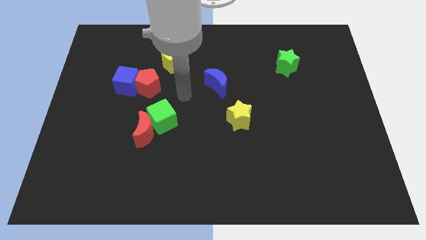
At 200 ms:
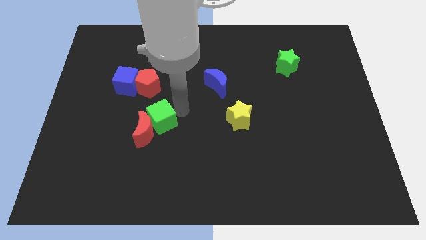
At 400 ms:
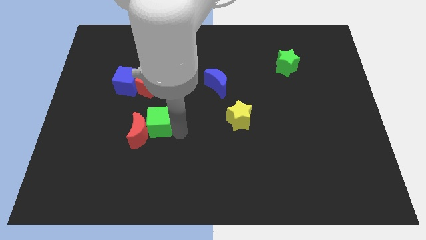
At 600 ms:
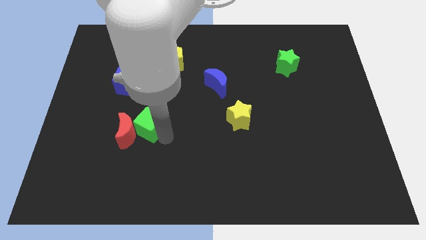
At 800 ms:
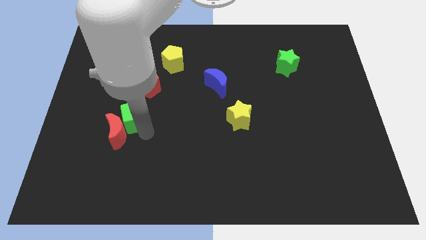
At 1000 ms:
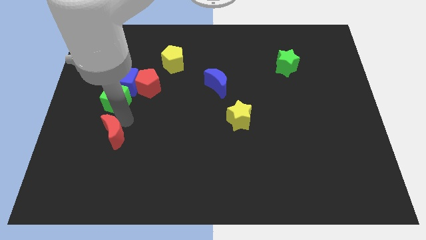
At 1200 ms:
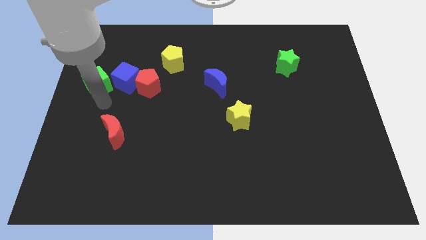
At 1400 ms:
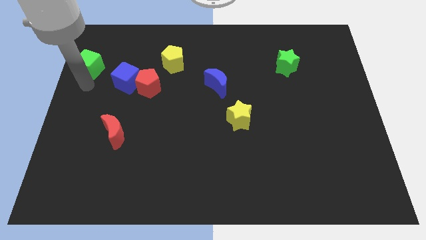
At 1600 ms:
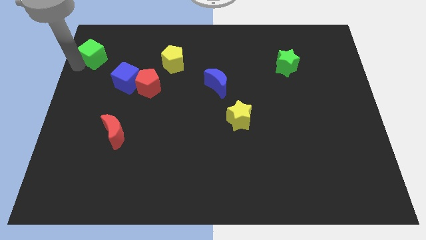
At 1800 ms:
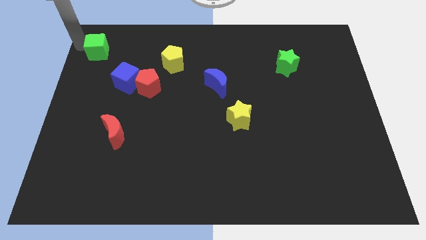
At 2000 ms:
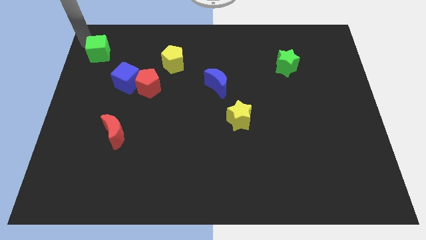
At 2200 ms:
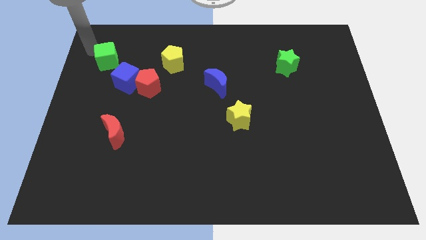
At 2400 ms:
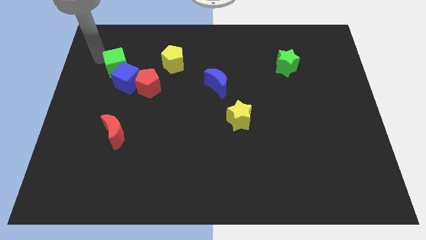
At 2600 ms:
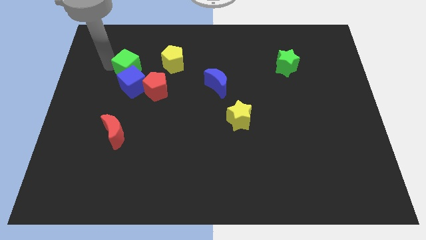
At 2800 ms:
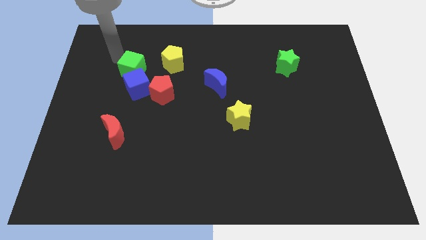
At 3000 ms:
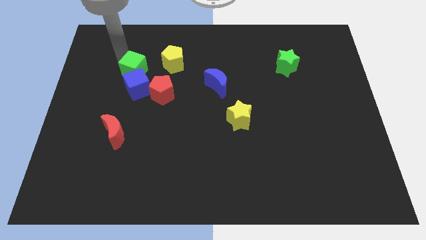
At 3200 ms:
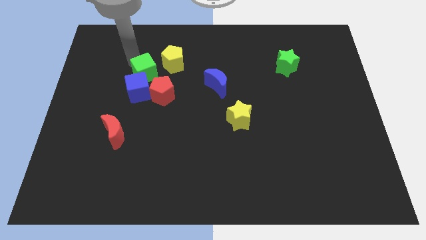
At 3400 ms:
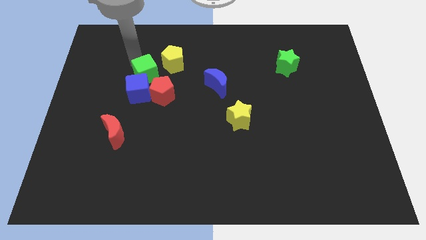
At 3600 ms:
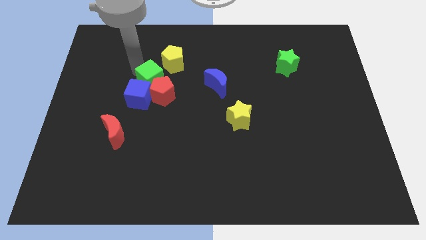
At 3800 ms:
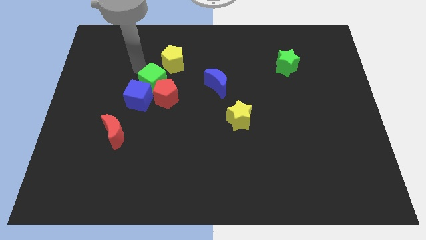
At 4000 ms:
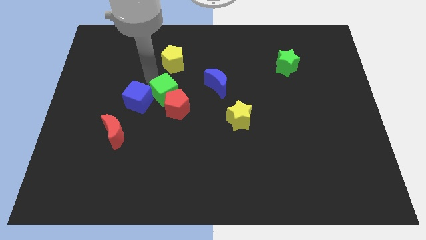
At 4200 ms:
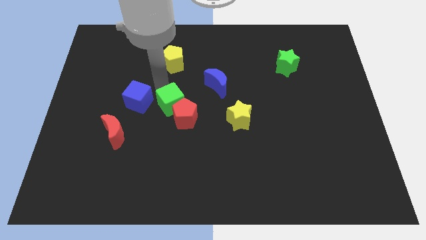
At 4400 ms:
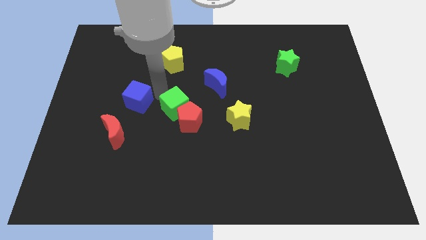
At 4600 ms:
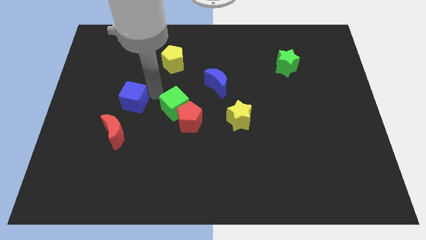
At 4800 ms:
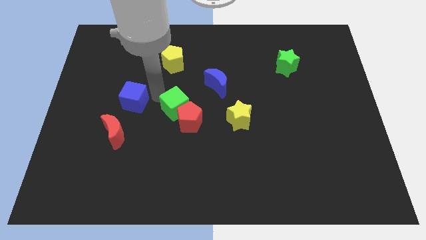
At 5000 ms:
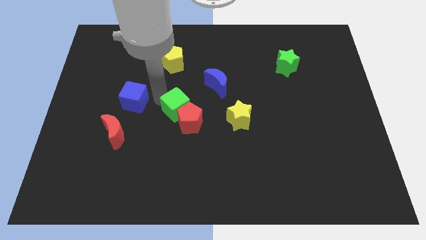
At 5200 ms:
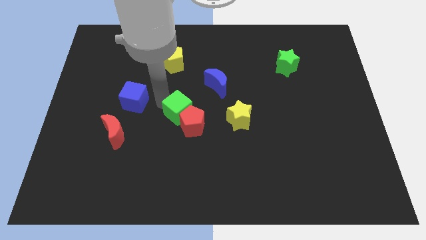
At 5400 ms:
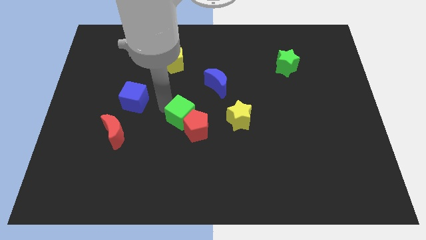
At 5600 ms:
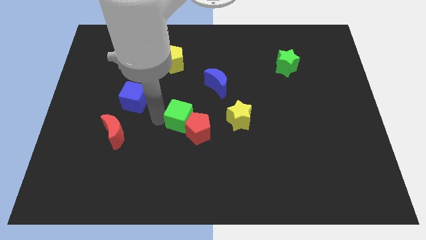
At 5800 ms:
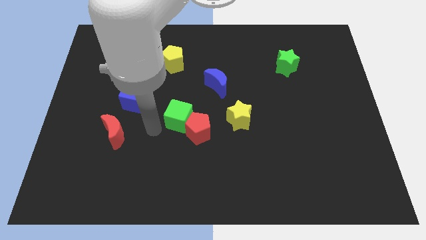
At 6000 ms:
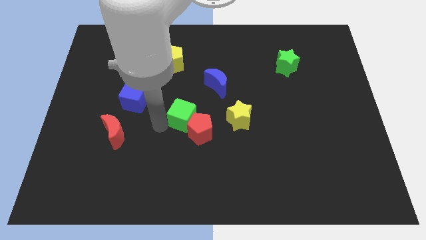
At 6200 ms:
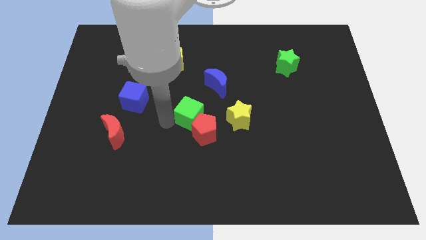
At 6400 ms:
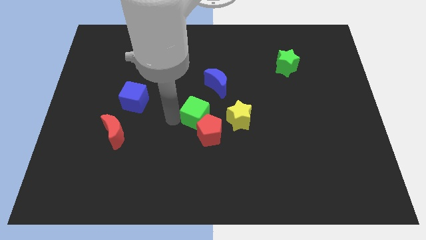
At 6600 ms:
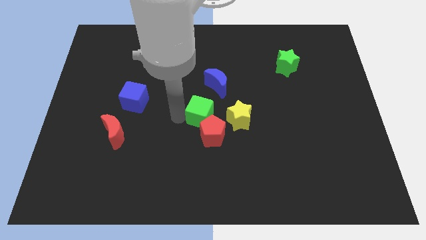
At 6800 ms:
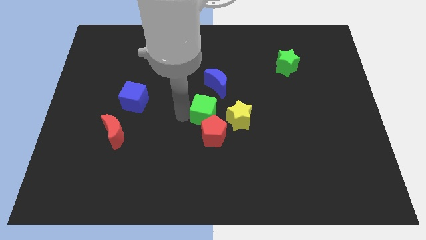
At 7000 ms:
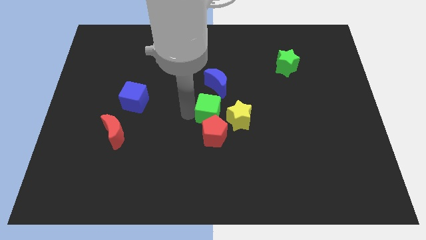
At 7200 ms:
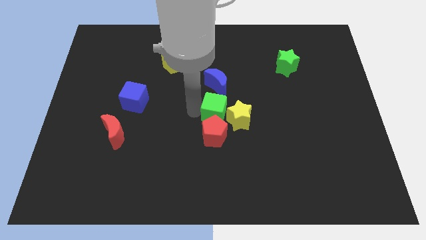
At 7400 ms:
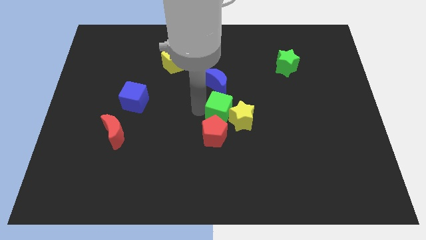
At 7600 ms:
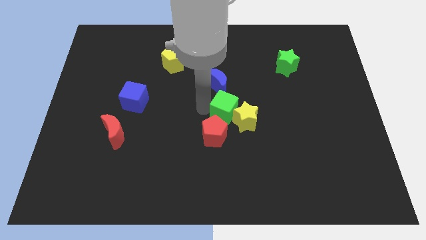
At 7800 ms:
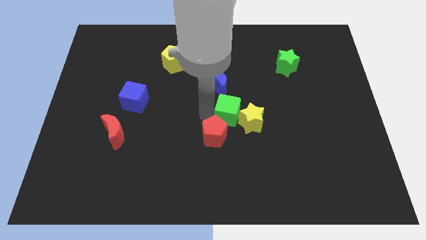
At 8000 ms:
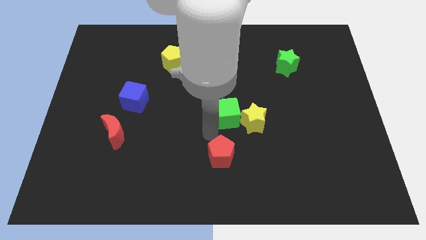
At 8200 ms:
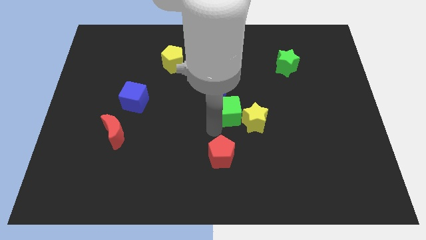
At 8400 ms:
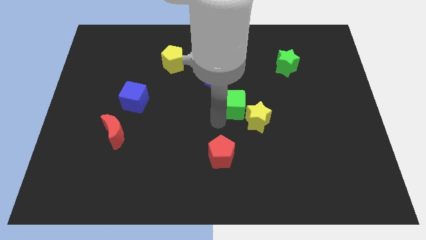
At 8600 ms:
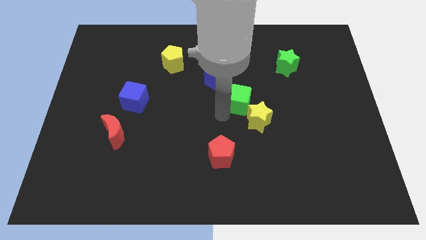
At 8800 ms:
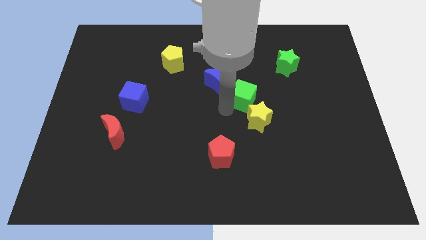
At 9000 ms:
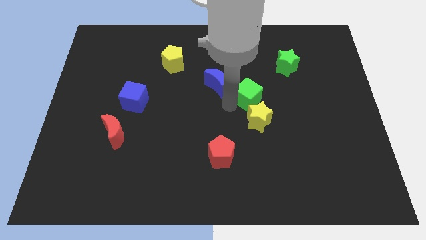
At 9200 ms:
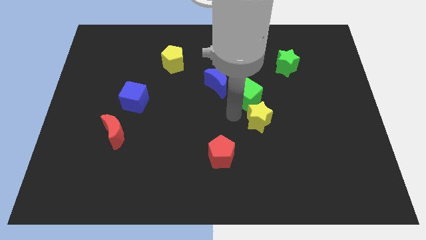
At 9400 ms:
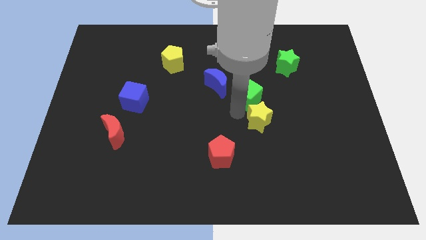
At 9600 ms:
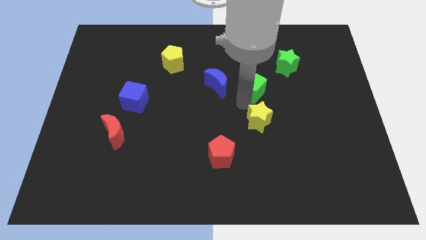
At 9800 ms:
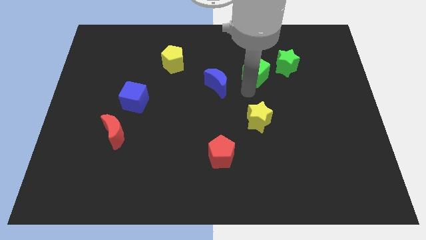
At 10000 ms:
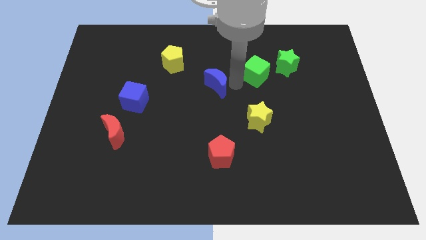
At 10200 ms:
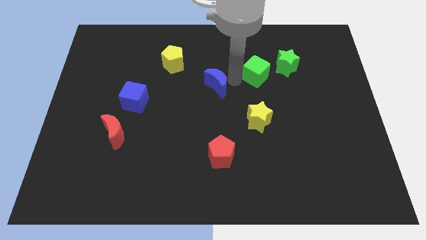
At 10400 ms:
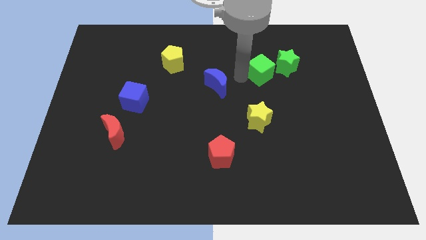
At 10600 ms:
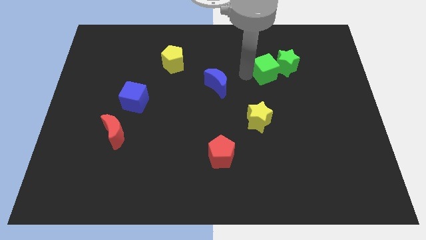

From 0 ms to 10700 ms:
slide the green cube close to the green star
